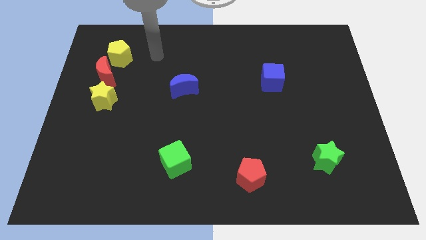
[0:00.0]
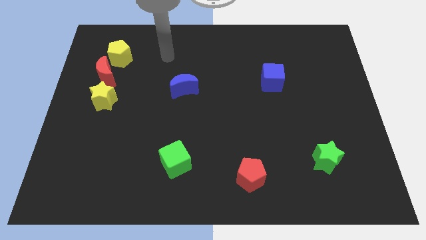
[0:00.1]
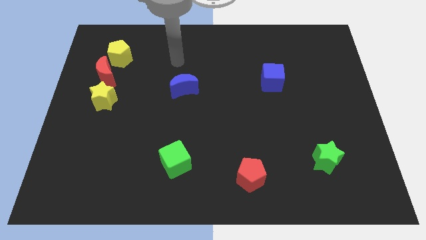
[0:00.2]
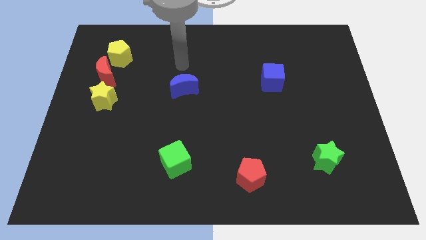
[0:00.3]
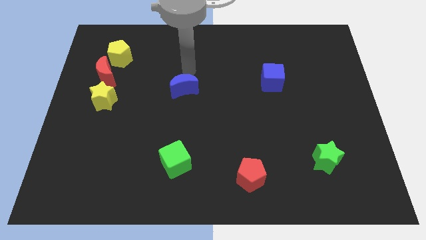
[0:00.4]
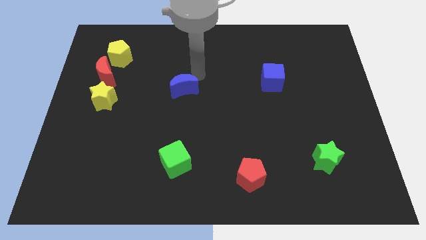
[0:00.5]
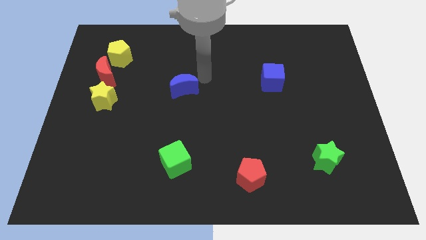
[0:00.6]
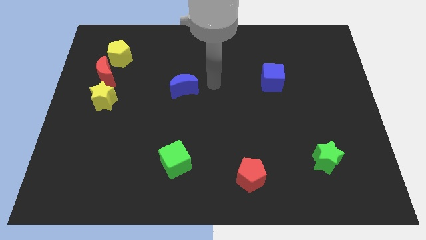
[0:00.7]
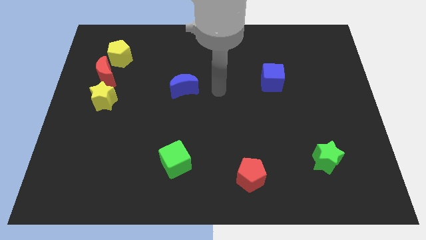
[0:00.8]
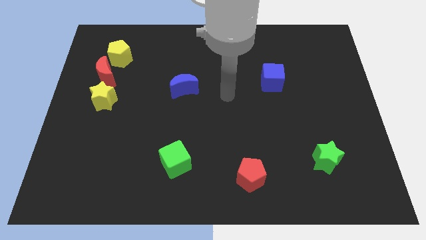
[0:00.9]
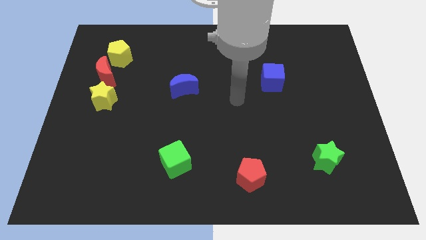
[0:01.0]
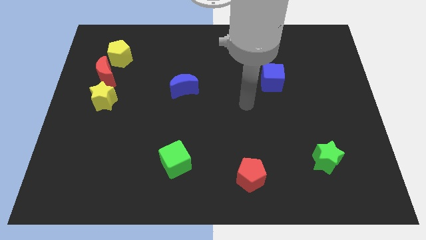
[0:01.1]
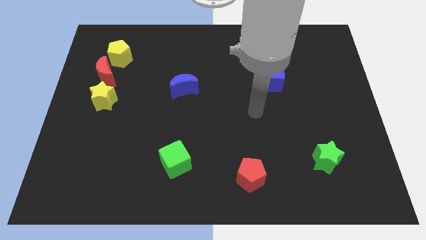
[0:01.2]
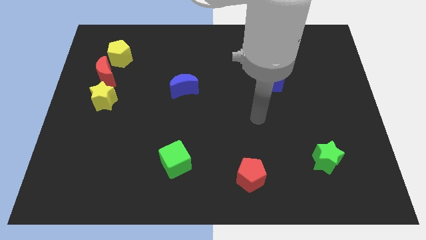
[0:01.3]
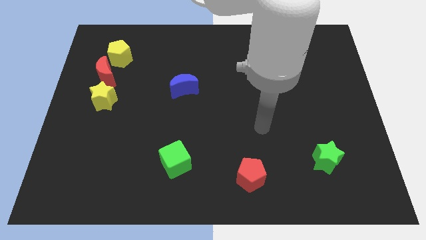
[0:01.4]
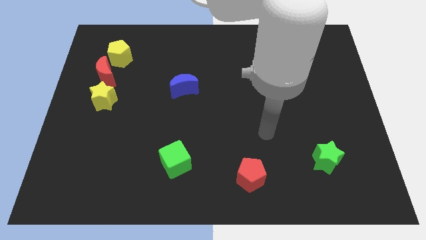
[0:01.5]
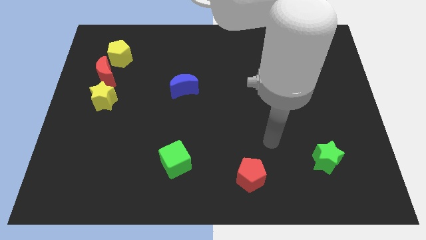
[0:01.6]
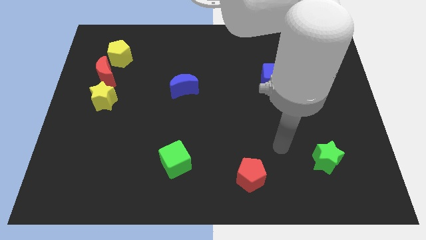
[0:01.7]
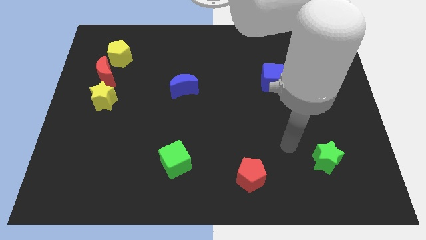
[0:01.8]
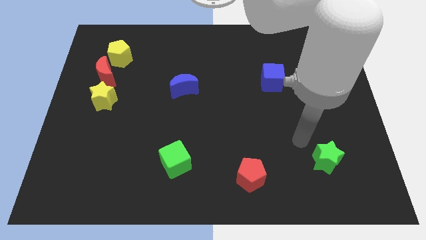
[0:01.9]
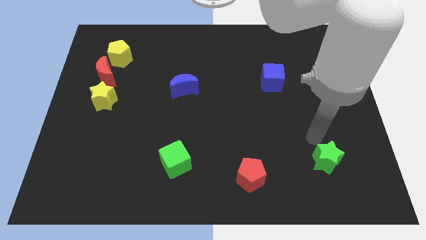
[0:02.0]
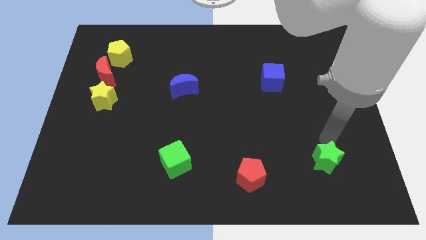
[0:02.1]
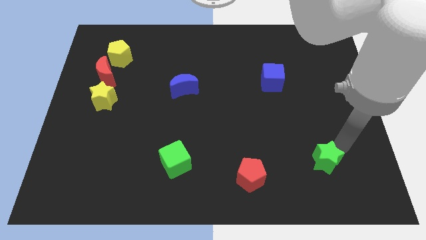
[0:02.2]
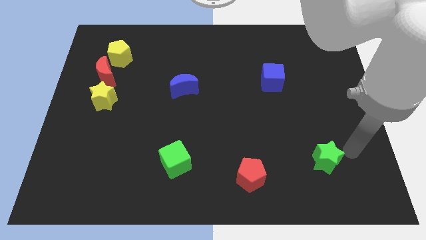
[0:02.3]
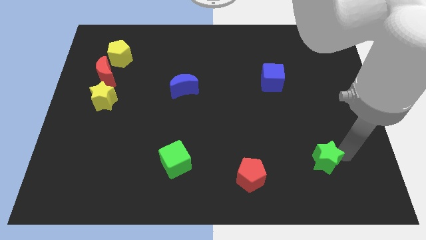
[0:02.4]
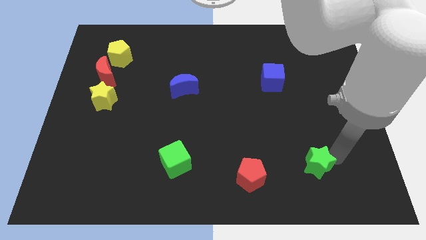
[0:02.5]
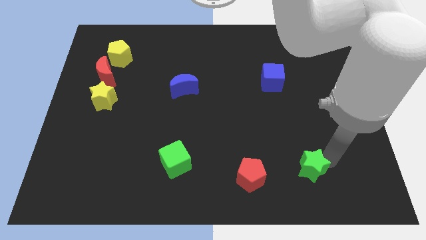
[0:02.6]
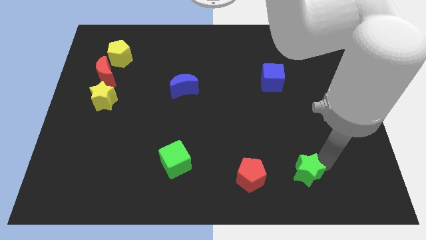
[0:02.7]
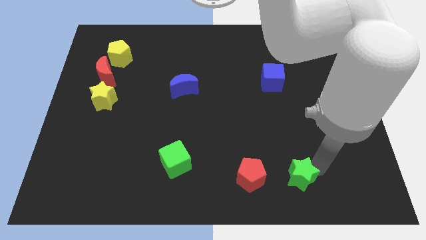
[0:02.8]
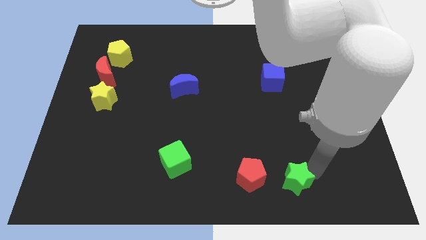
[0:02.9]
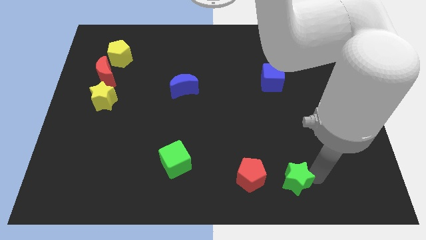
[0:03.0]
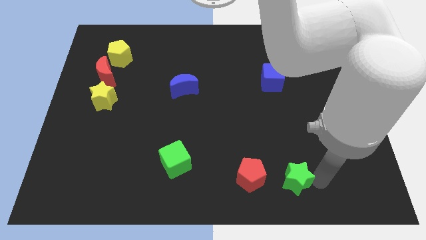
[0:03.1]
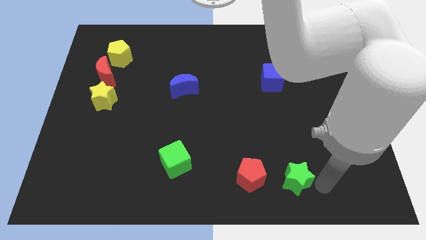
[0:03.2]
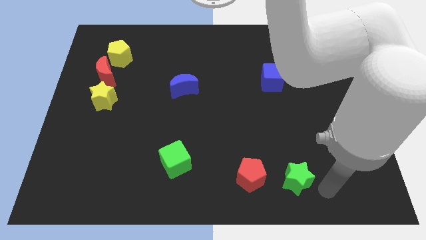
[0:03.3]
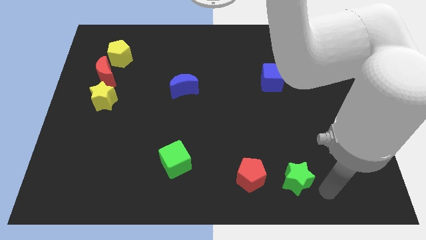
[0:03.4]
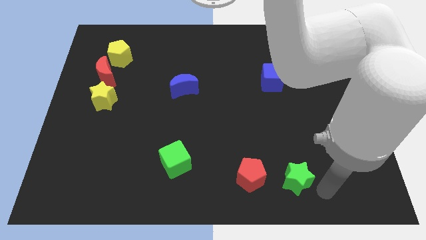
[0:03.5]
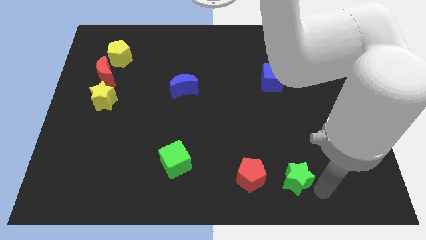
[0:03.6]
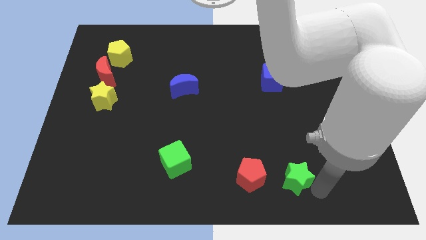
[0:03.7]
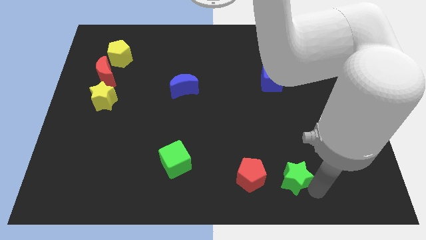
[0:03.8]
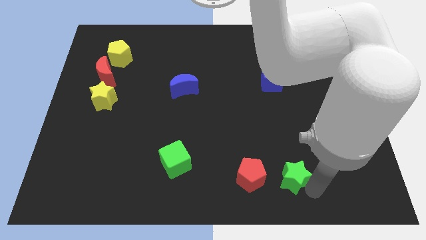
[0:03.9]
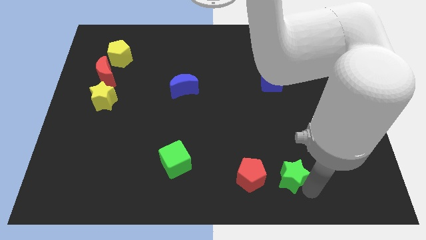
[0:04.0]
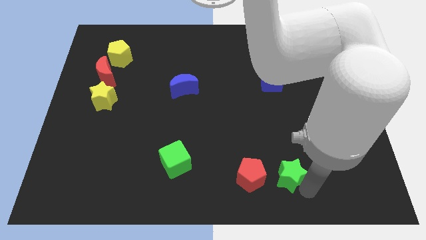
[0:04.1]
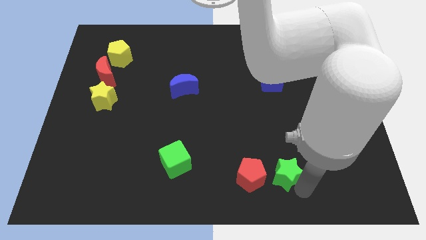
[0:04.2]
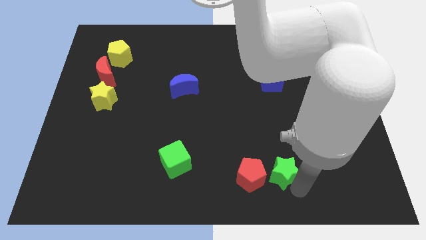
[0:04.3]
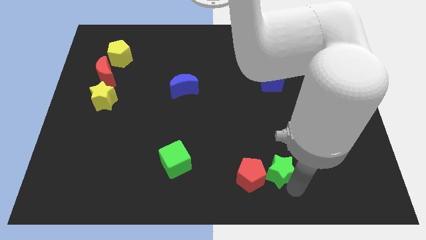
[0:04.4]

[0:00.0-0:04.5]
move the green star to the red pentagon

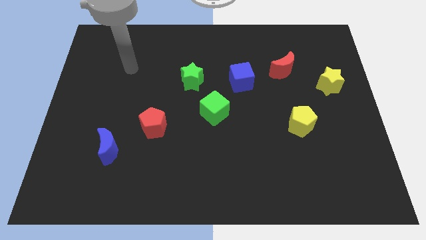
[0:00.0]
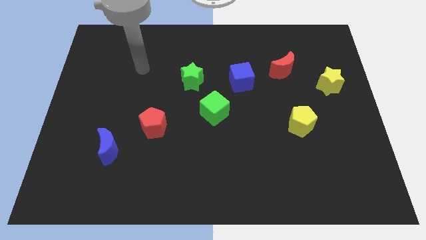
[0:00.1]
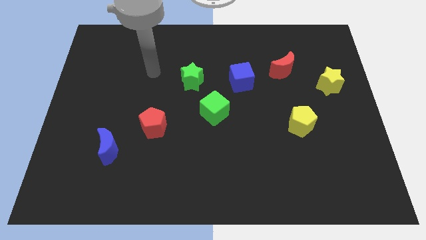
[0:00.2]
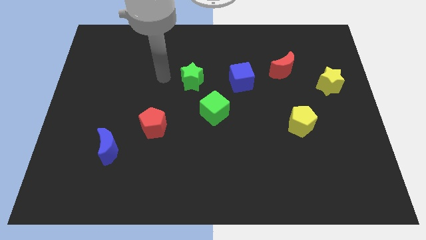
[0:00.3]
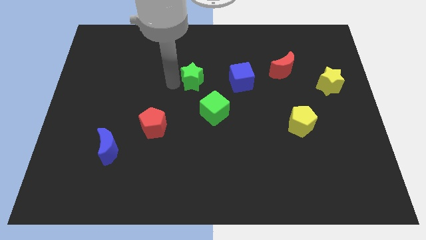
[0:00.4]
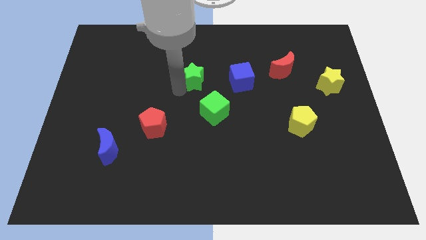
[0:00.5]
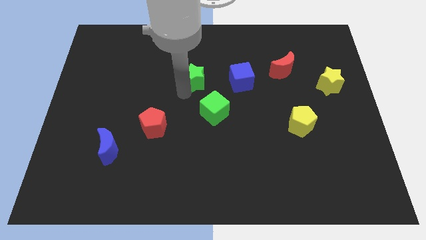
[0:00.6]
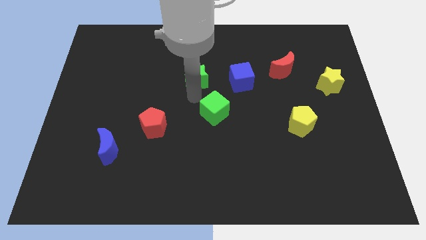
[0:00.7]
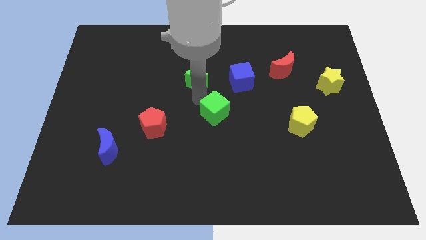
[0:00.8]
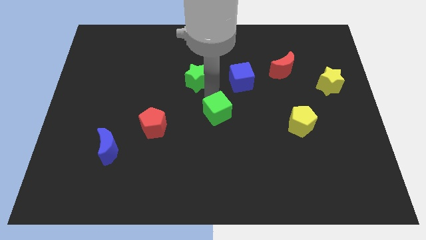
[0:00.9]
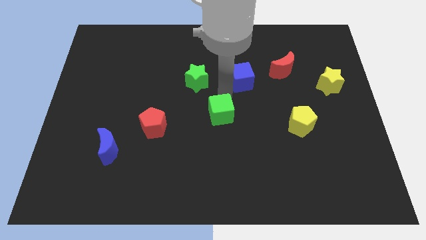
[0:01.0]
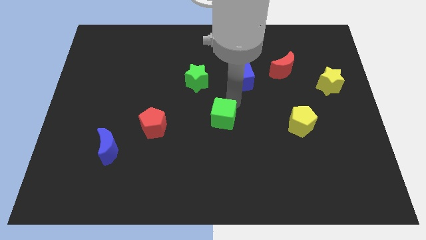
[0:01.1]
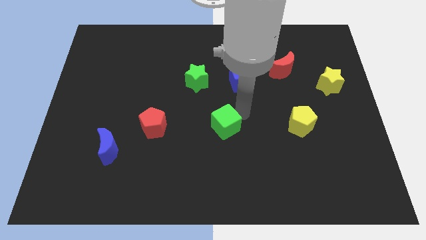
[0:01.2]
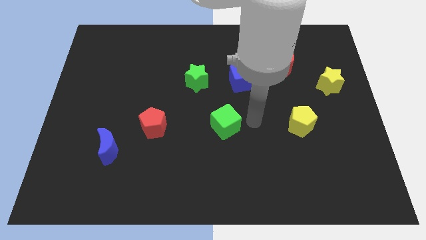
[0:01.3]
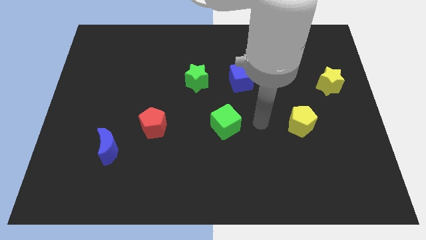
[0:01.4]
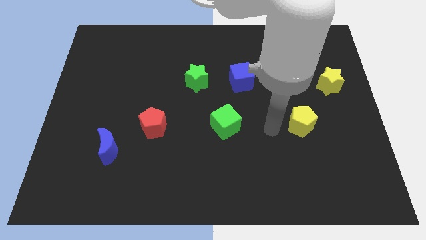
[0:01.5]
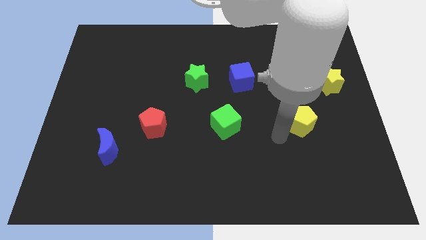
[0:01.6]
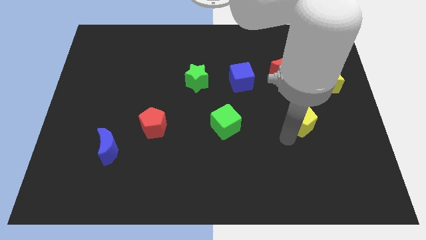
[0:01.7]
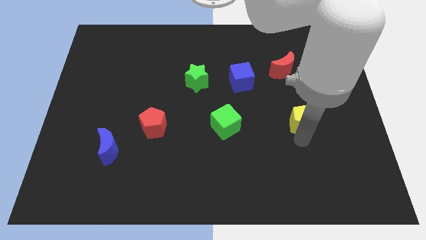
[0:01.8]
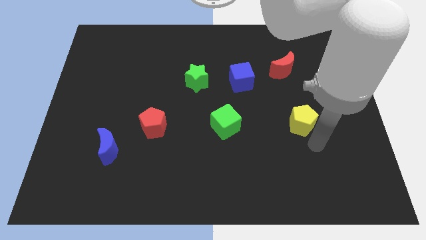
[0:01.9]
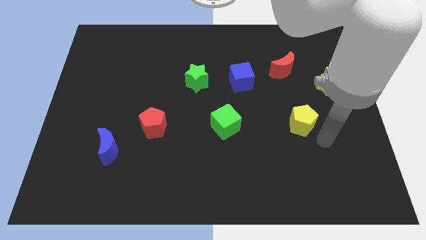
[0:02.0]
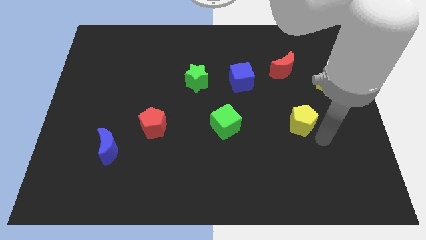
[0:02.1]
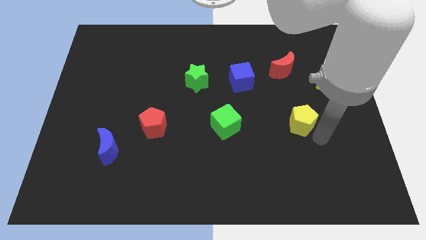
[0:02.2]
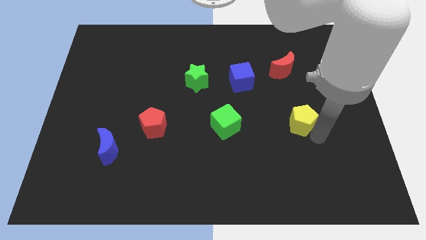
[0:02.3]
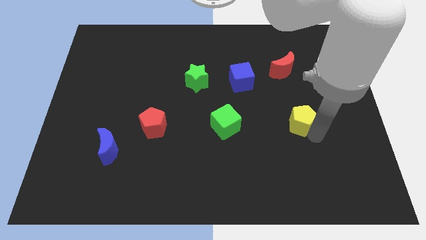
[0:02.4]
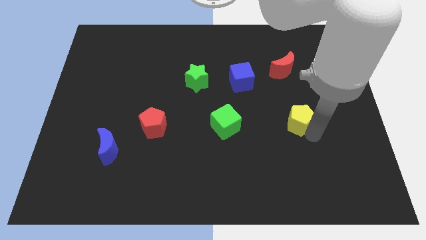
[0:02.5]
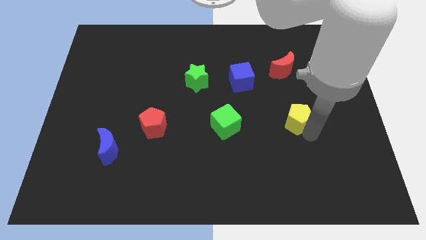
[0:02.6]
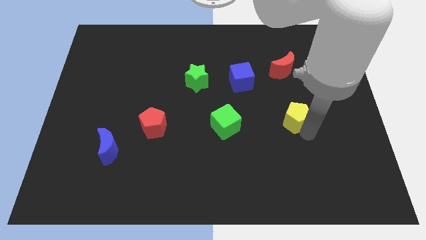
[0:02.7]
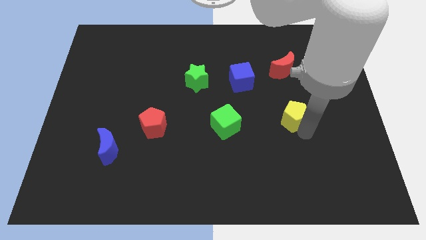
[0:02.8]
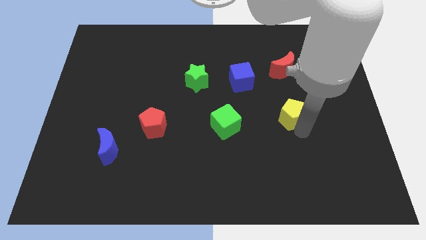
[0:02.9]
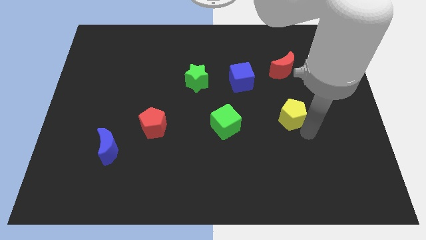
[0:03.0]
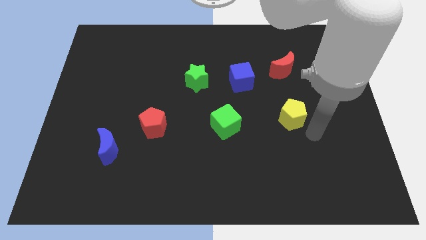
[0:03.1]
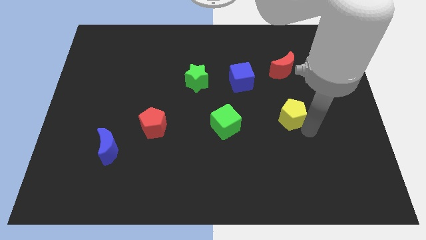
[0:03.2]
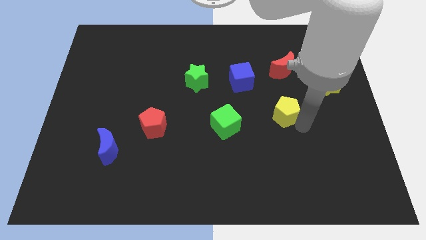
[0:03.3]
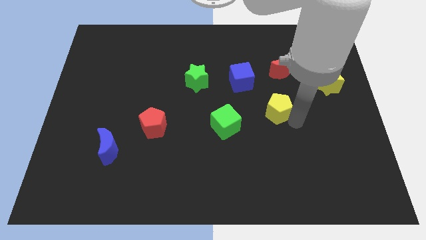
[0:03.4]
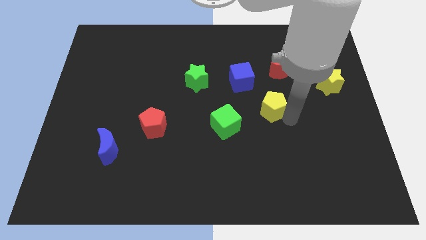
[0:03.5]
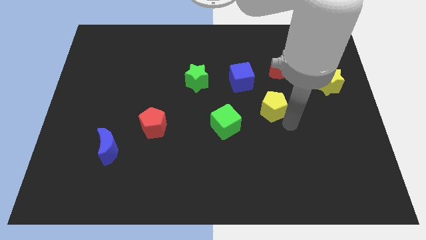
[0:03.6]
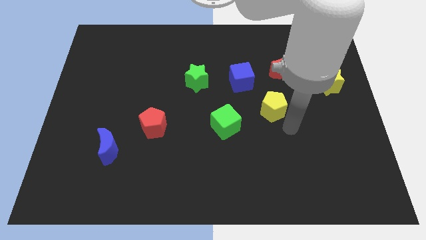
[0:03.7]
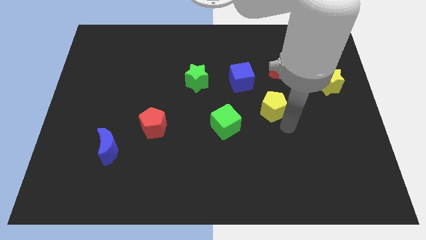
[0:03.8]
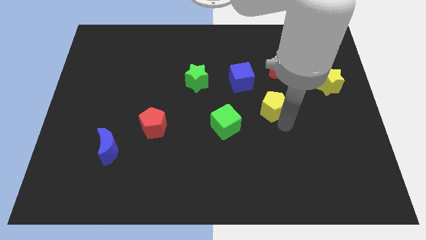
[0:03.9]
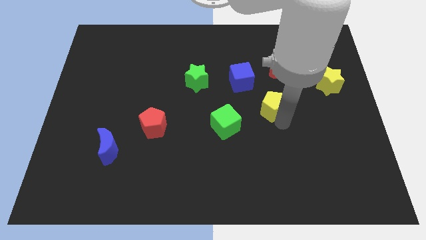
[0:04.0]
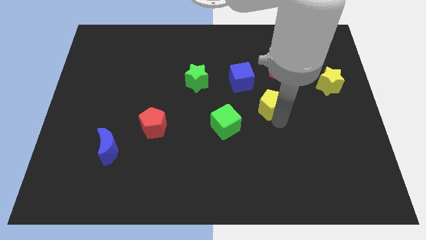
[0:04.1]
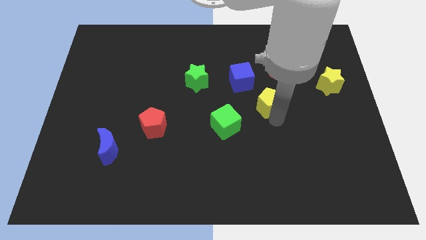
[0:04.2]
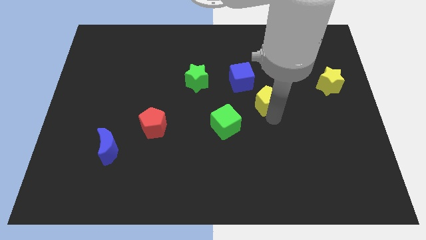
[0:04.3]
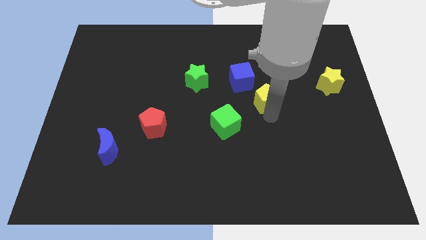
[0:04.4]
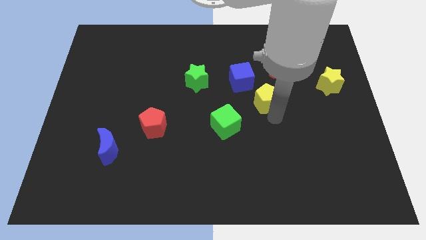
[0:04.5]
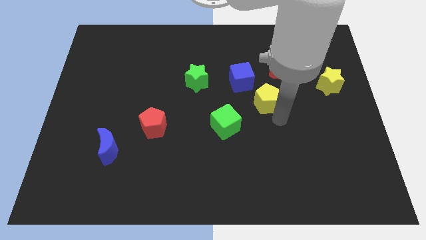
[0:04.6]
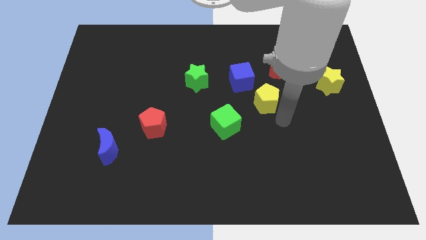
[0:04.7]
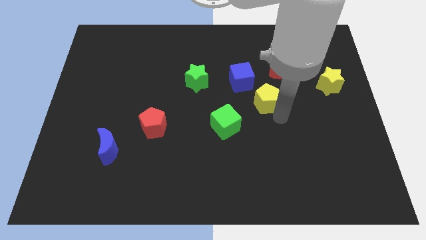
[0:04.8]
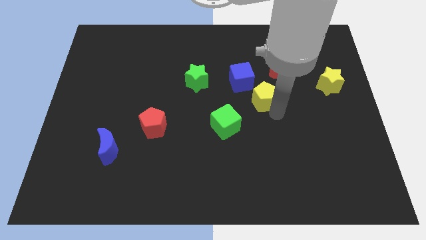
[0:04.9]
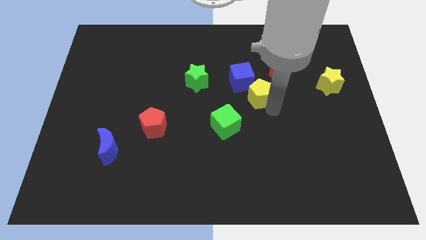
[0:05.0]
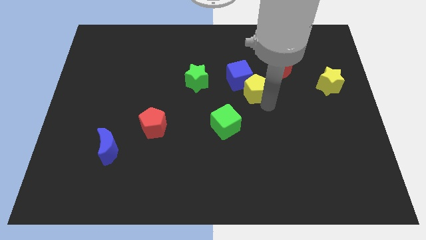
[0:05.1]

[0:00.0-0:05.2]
put the yellow pentagon to the blue cube
